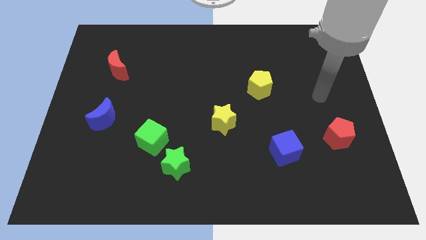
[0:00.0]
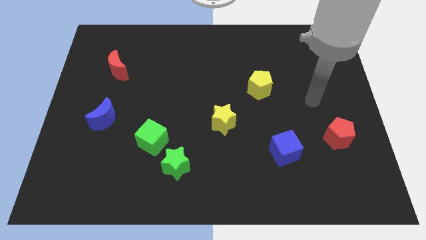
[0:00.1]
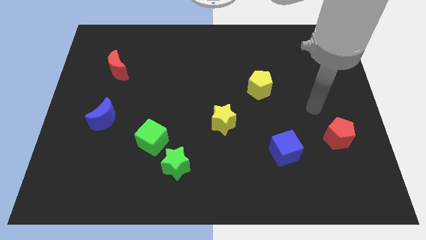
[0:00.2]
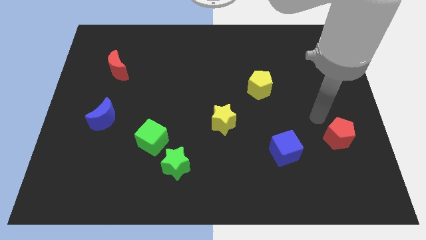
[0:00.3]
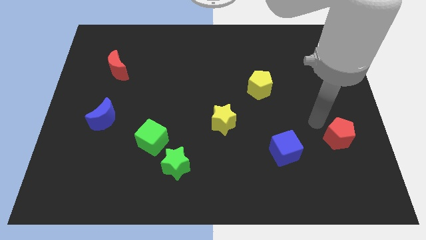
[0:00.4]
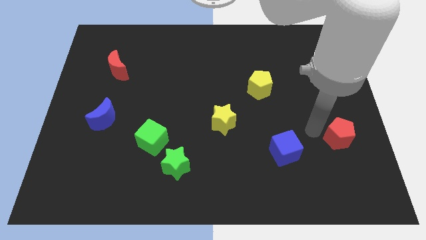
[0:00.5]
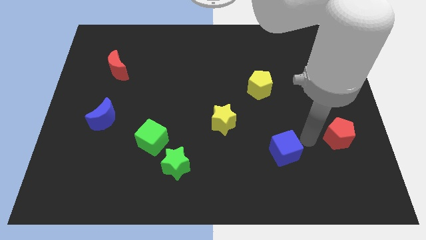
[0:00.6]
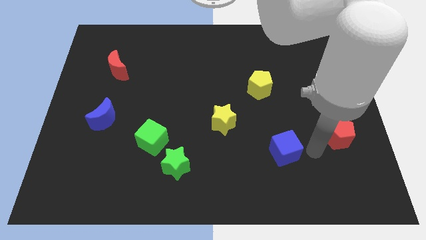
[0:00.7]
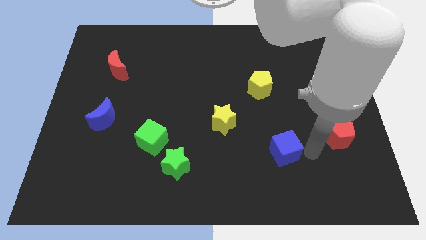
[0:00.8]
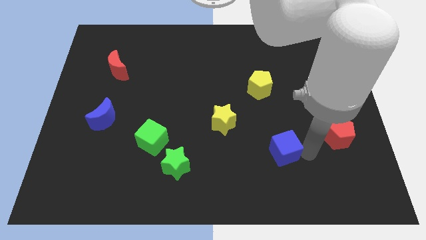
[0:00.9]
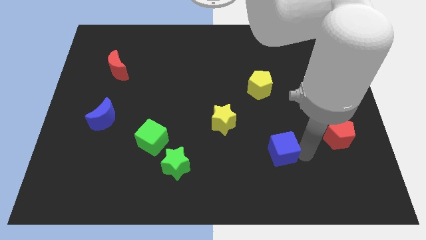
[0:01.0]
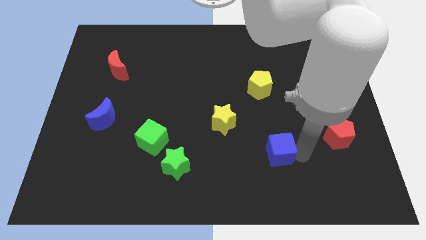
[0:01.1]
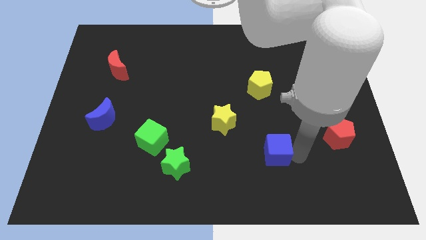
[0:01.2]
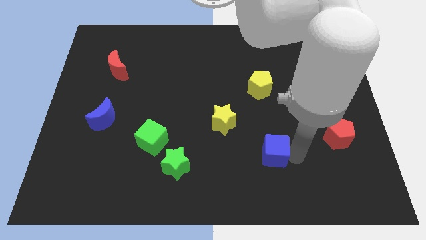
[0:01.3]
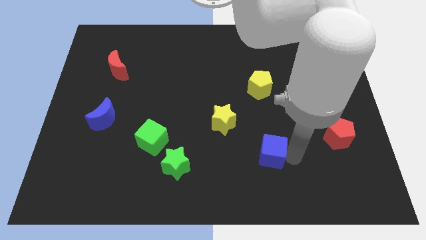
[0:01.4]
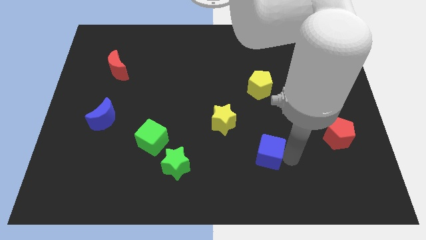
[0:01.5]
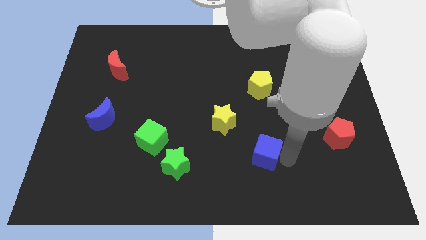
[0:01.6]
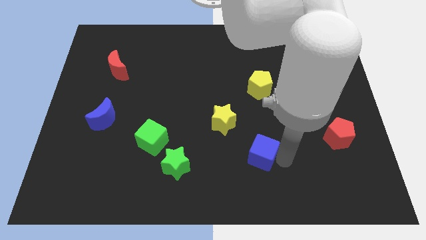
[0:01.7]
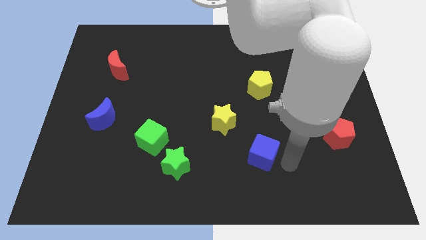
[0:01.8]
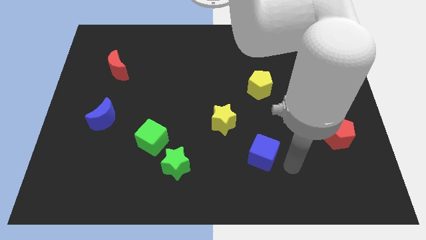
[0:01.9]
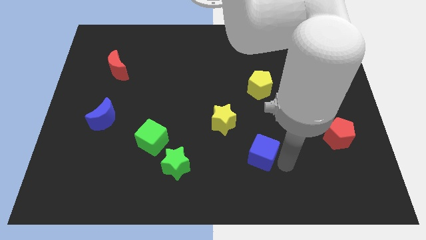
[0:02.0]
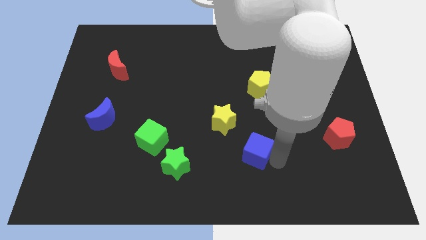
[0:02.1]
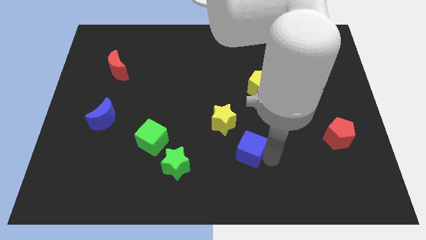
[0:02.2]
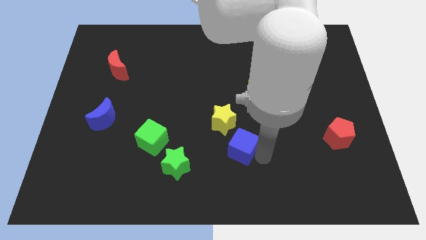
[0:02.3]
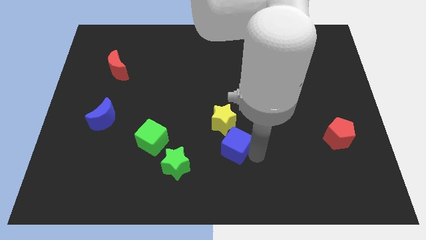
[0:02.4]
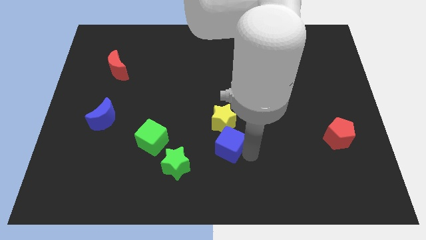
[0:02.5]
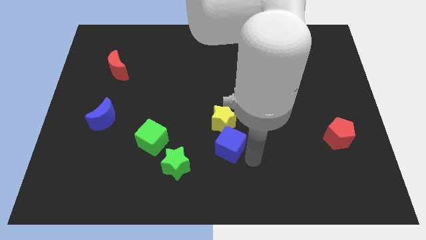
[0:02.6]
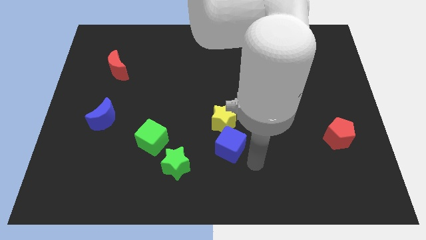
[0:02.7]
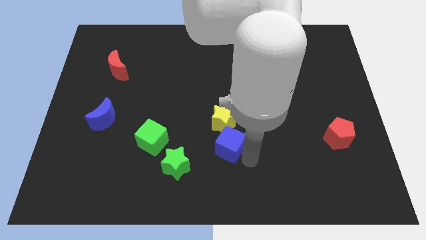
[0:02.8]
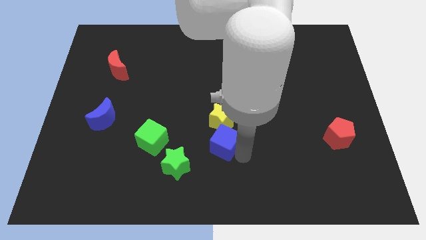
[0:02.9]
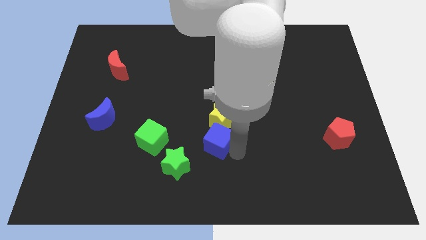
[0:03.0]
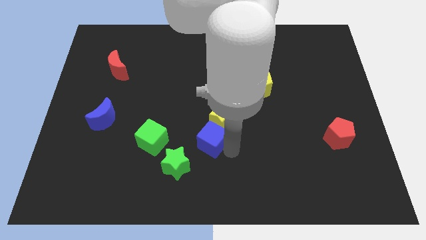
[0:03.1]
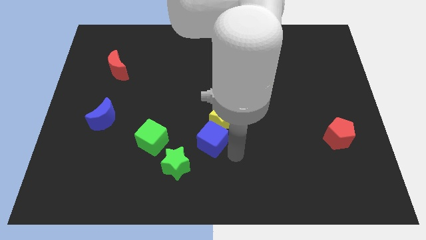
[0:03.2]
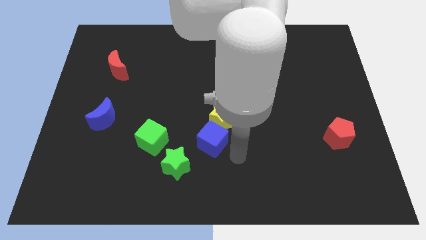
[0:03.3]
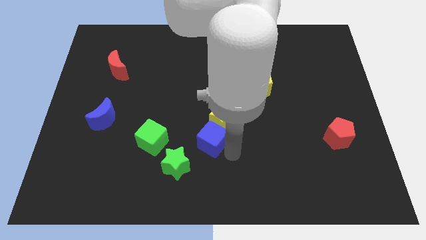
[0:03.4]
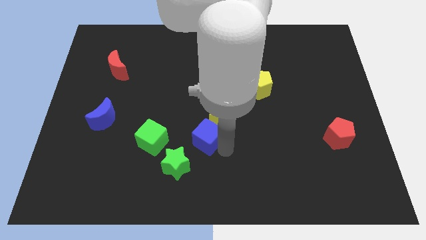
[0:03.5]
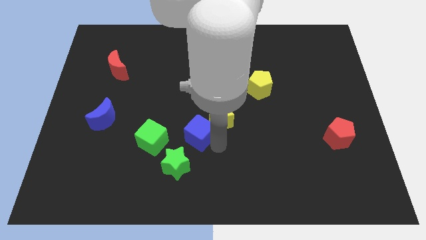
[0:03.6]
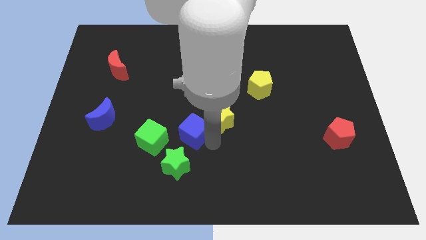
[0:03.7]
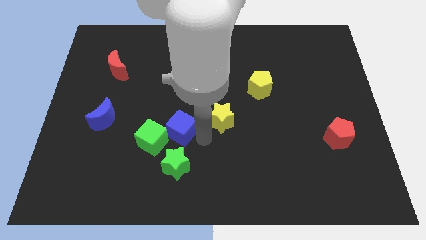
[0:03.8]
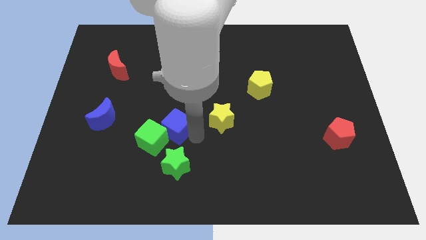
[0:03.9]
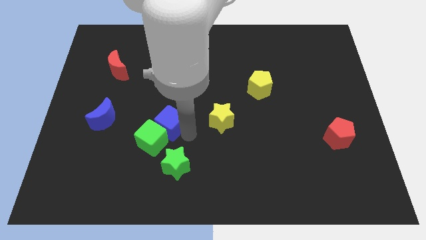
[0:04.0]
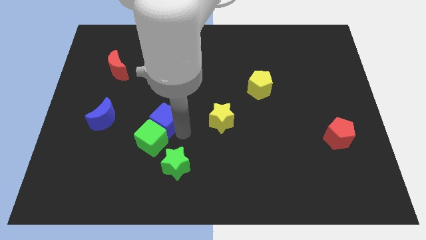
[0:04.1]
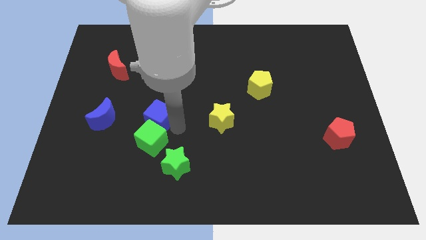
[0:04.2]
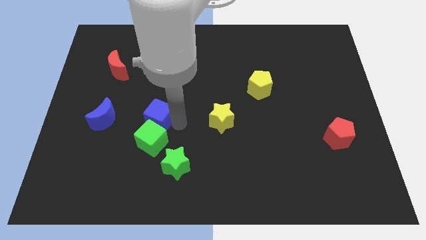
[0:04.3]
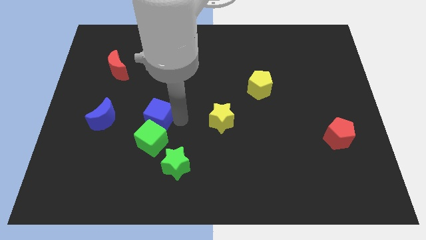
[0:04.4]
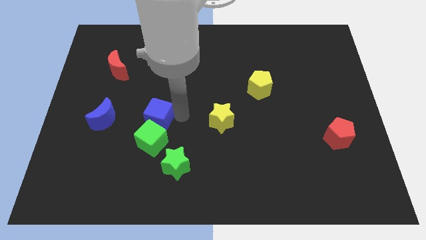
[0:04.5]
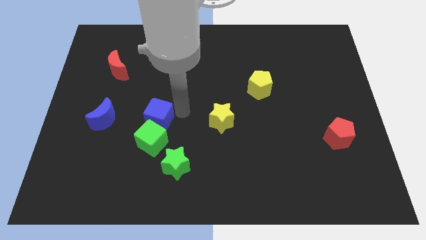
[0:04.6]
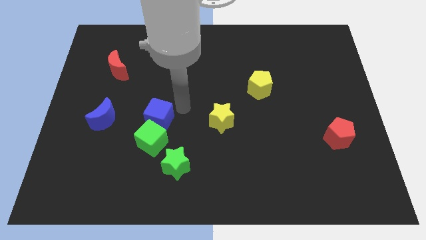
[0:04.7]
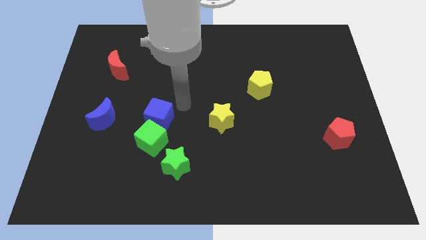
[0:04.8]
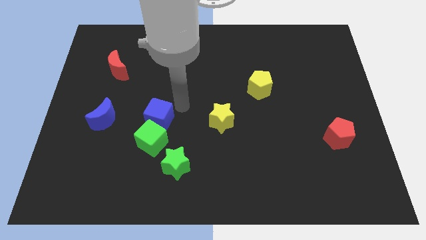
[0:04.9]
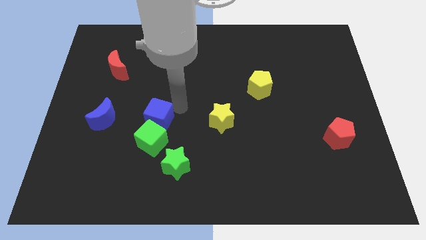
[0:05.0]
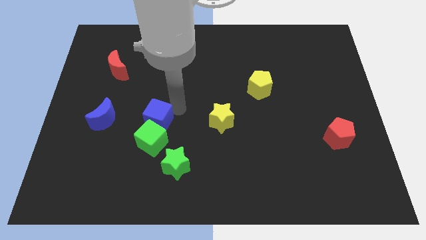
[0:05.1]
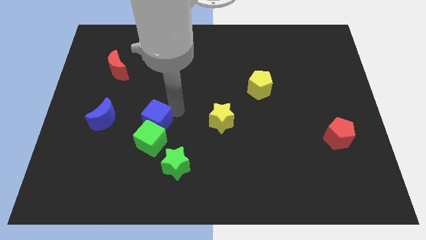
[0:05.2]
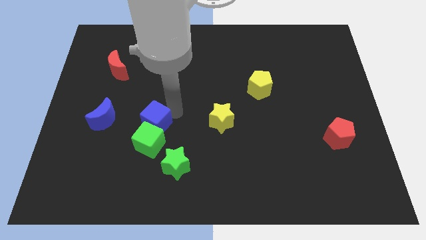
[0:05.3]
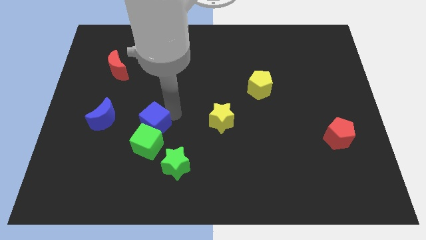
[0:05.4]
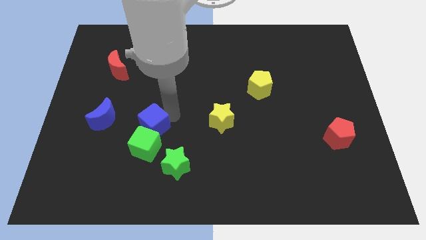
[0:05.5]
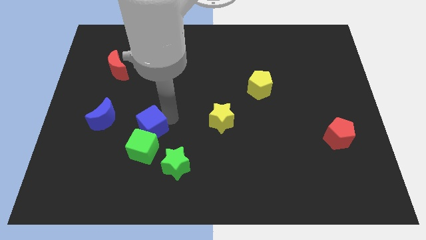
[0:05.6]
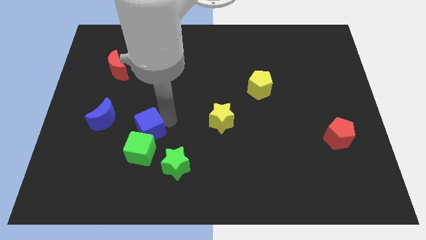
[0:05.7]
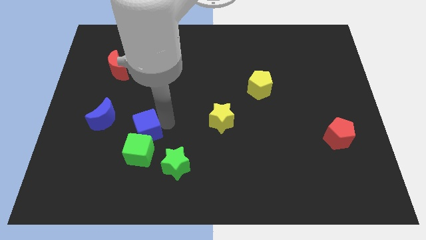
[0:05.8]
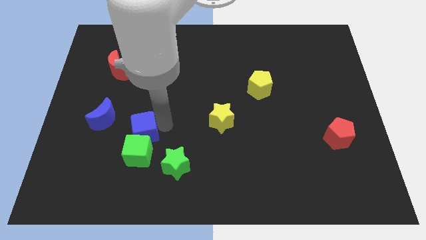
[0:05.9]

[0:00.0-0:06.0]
put the blue cube diagonally down and to the right of the blue moon

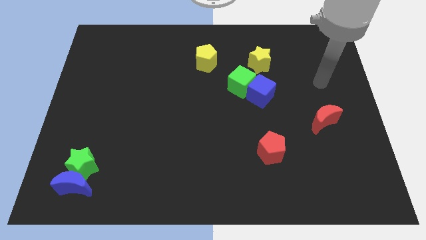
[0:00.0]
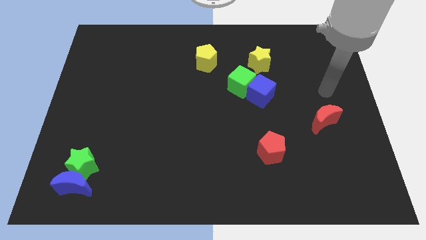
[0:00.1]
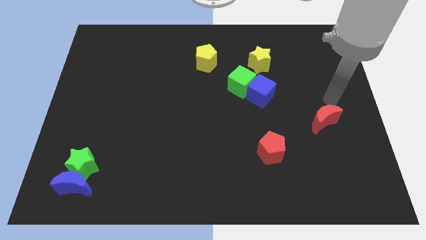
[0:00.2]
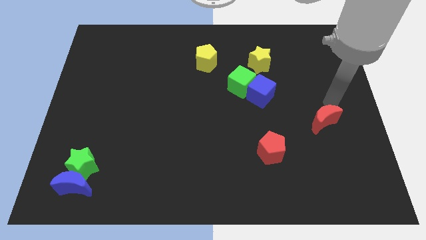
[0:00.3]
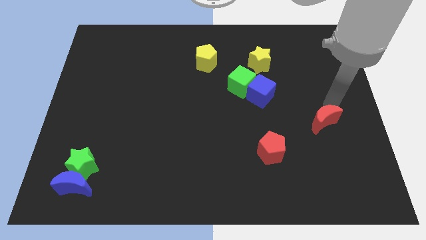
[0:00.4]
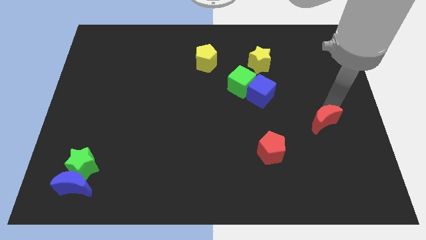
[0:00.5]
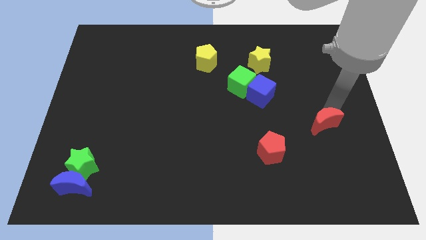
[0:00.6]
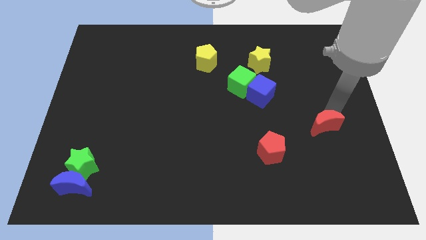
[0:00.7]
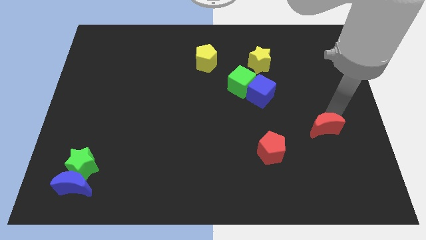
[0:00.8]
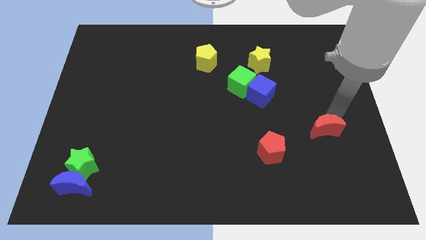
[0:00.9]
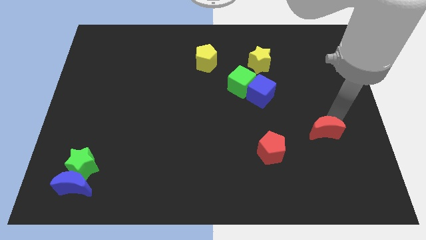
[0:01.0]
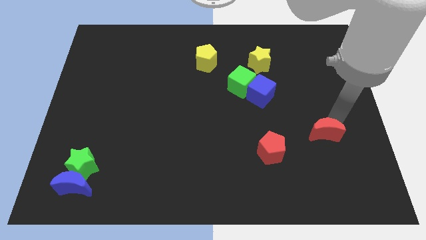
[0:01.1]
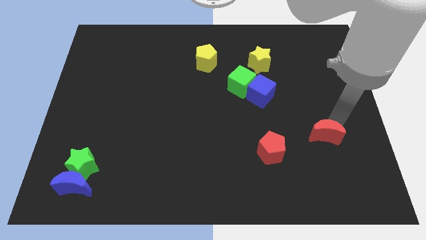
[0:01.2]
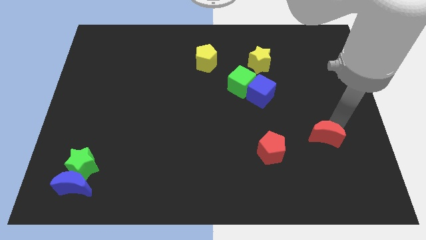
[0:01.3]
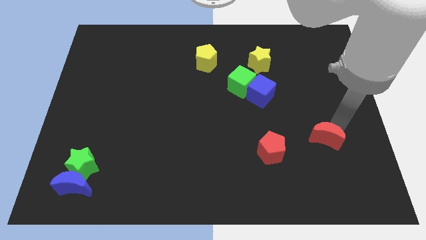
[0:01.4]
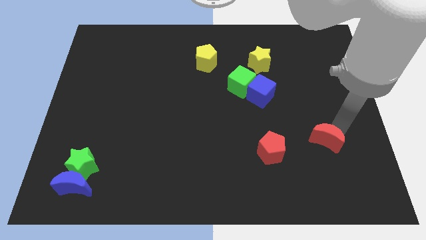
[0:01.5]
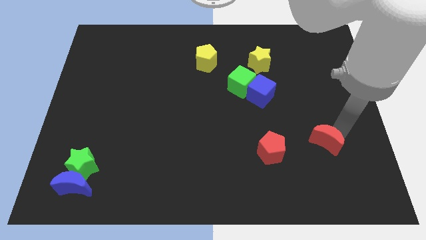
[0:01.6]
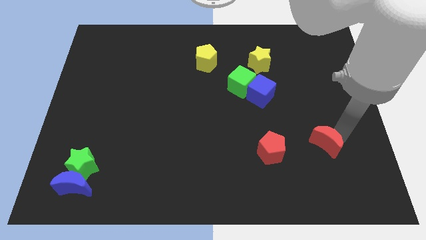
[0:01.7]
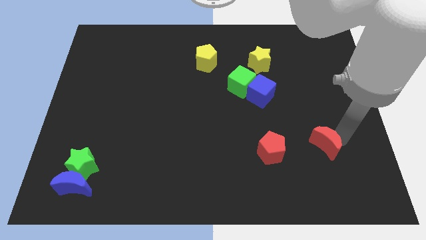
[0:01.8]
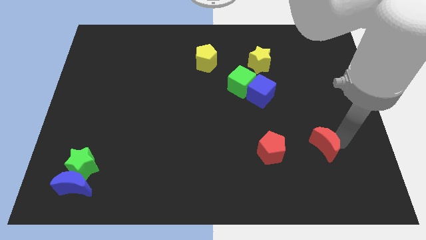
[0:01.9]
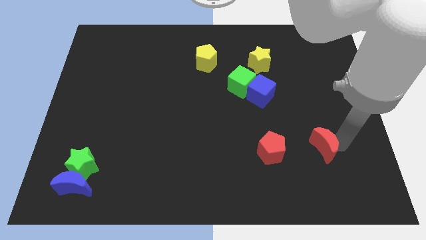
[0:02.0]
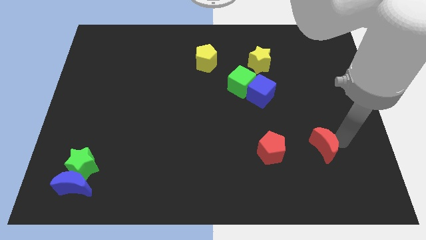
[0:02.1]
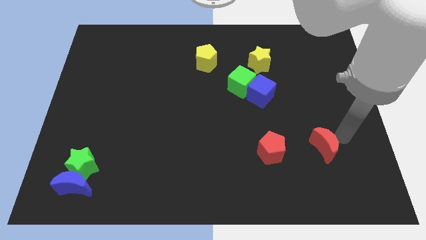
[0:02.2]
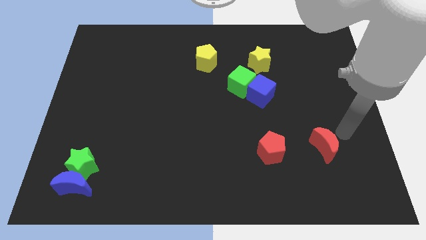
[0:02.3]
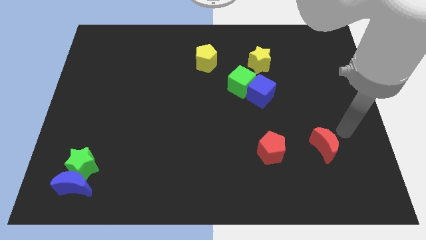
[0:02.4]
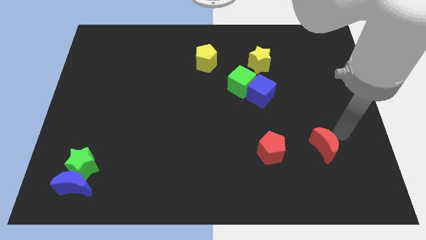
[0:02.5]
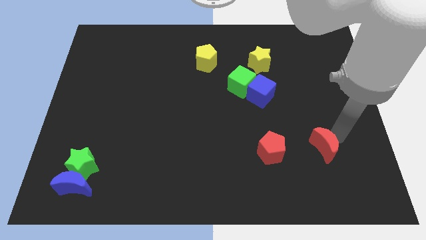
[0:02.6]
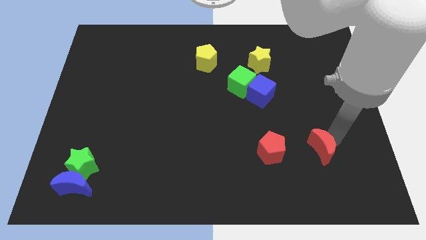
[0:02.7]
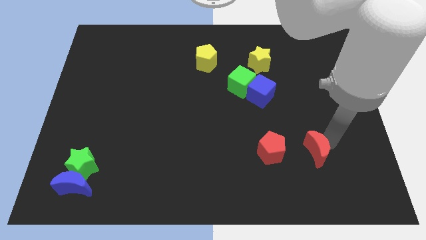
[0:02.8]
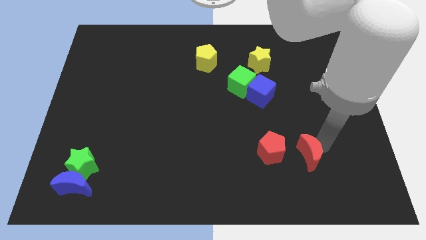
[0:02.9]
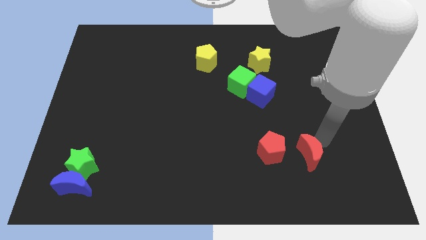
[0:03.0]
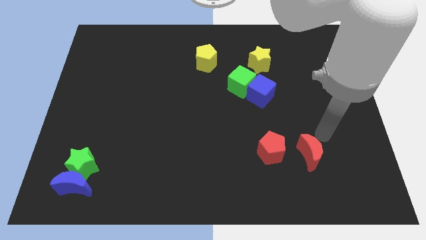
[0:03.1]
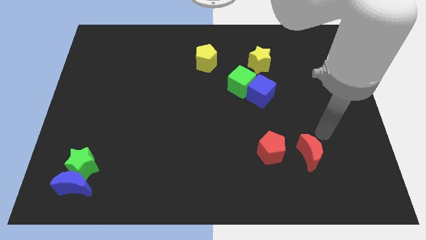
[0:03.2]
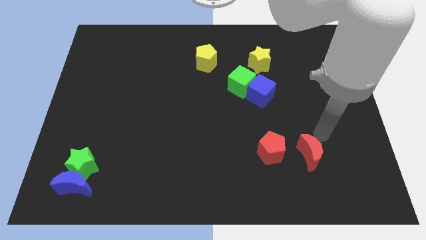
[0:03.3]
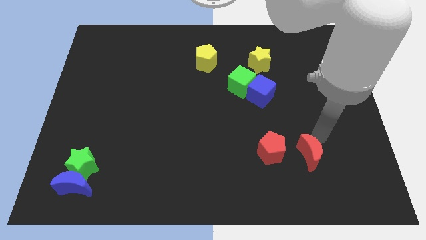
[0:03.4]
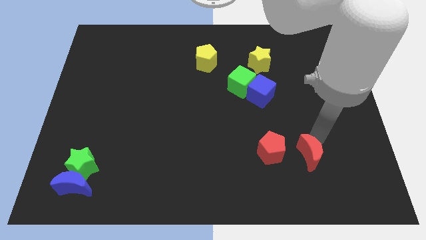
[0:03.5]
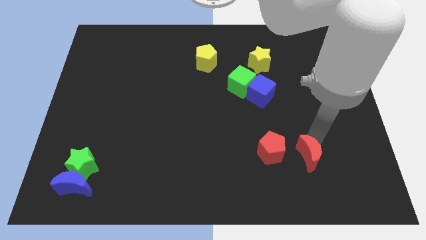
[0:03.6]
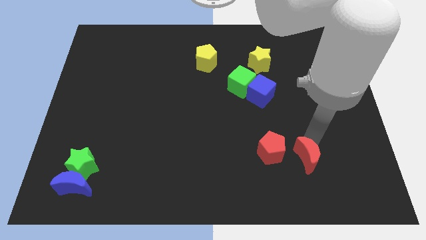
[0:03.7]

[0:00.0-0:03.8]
slide the red moon diagonally down and to the right of the red pentagon
